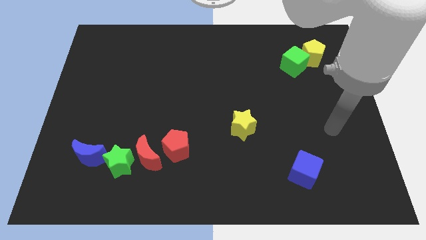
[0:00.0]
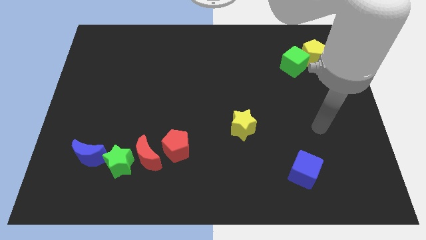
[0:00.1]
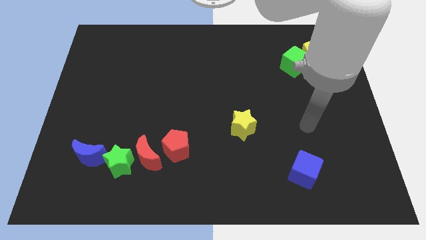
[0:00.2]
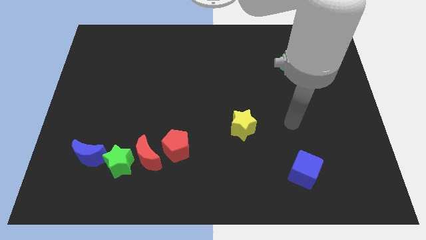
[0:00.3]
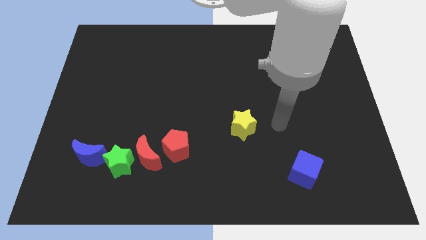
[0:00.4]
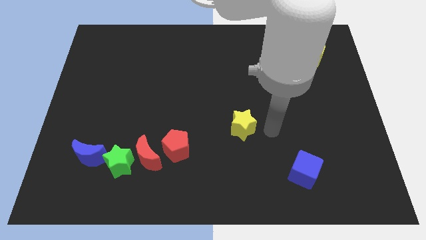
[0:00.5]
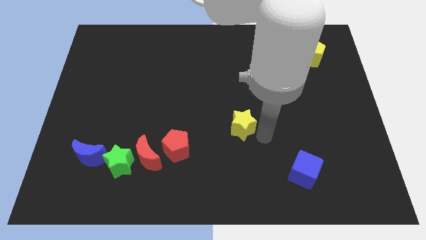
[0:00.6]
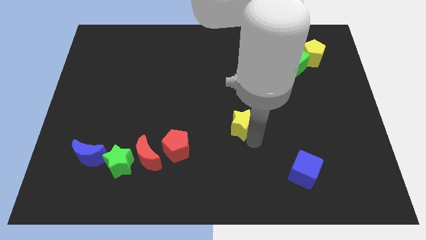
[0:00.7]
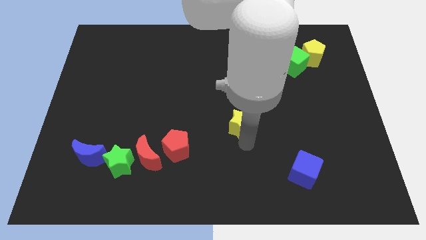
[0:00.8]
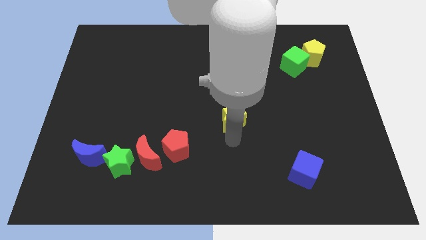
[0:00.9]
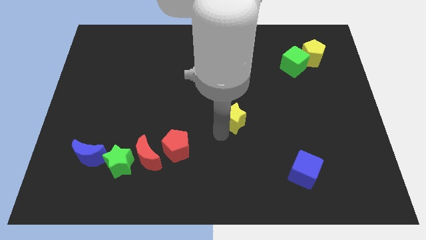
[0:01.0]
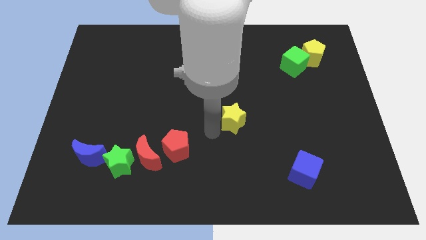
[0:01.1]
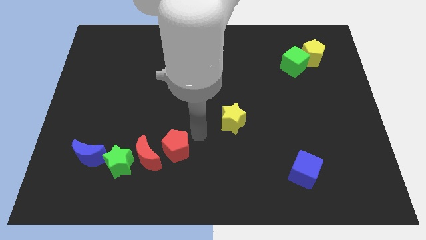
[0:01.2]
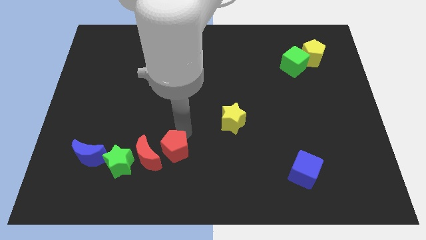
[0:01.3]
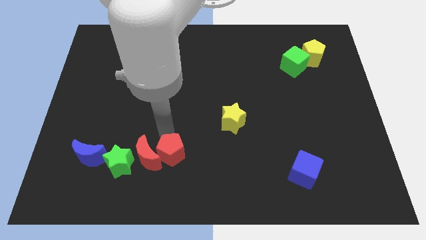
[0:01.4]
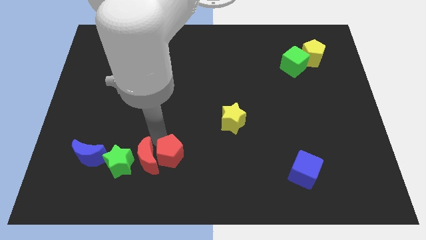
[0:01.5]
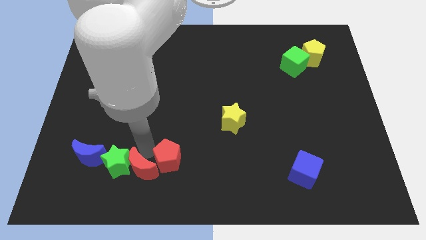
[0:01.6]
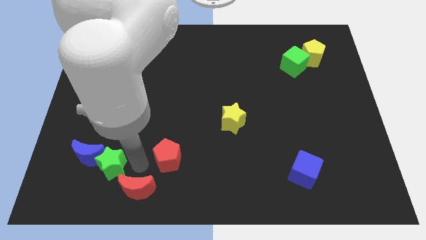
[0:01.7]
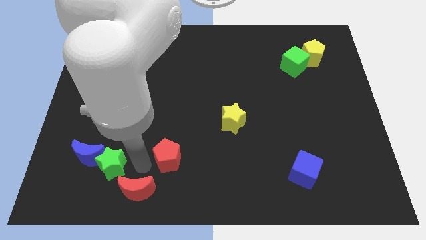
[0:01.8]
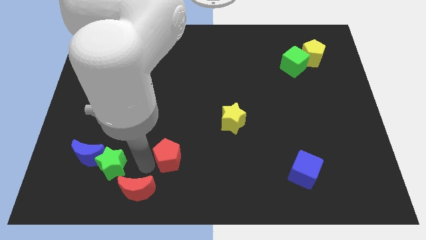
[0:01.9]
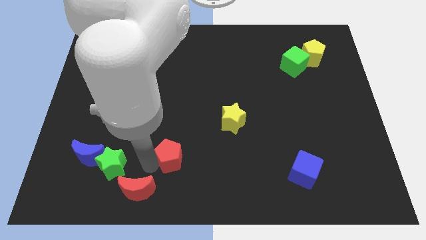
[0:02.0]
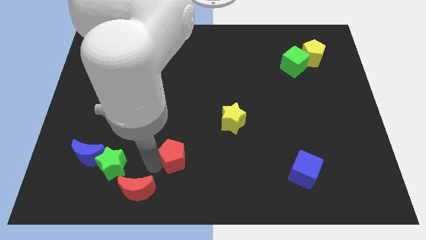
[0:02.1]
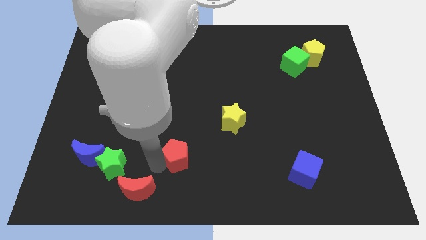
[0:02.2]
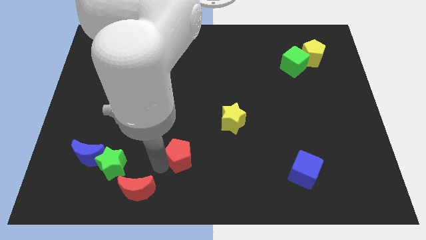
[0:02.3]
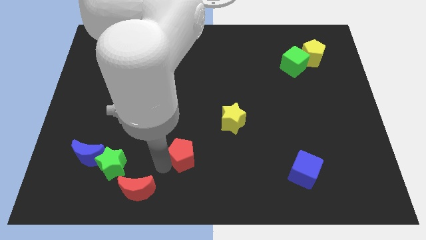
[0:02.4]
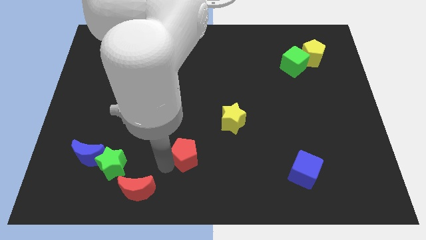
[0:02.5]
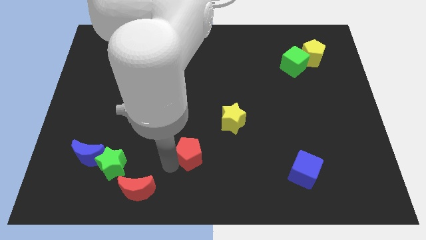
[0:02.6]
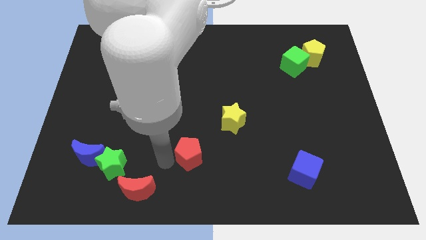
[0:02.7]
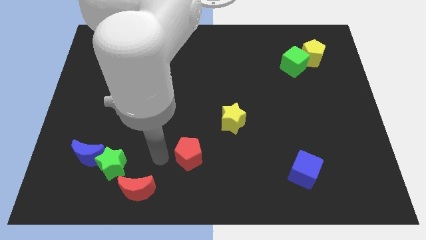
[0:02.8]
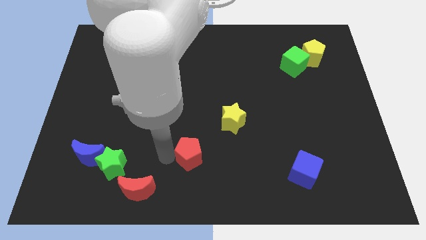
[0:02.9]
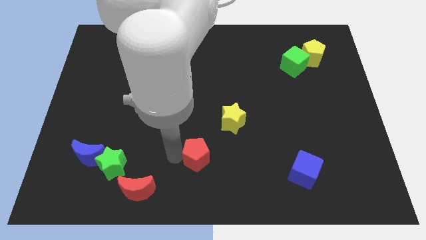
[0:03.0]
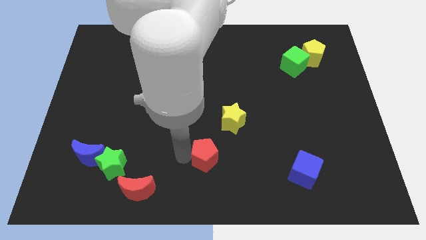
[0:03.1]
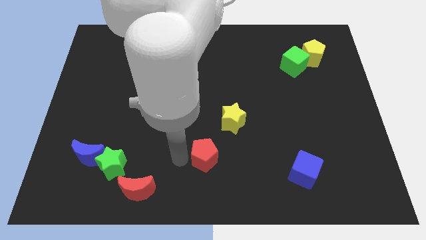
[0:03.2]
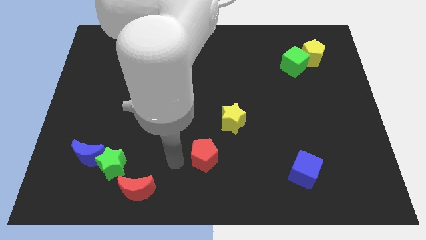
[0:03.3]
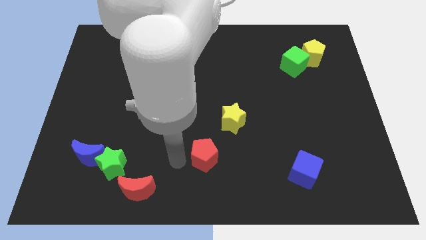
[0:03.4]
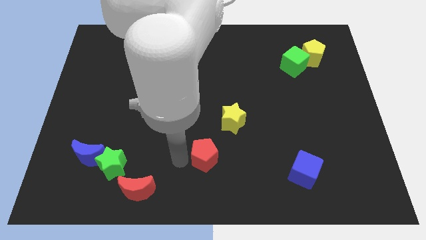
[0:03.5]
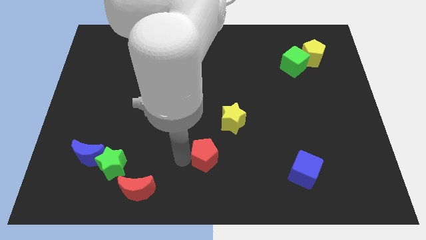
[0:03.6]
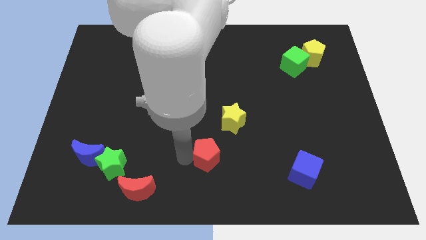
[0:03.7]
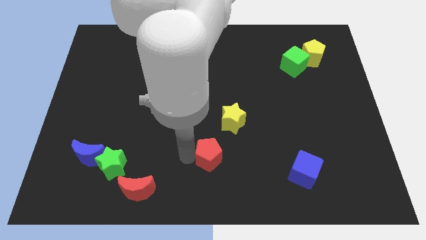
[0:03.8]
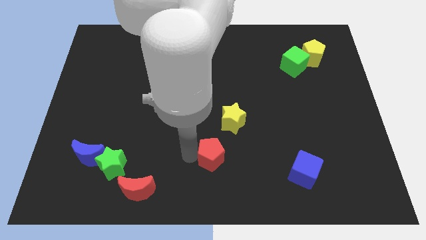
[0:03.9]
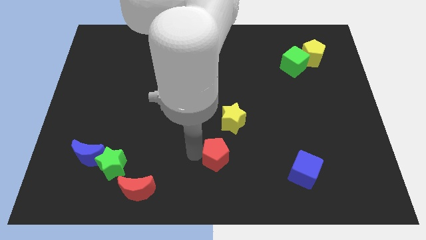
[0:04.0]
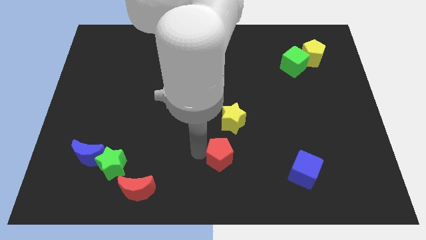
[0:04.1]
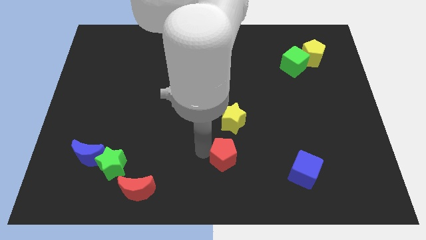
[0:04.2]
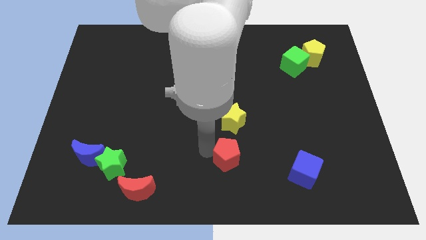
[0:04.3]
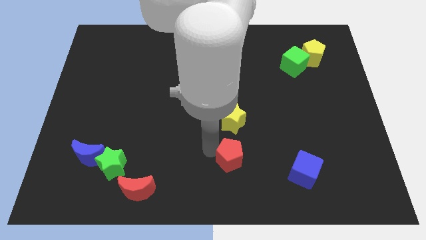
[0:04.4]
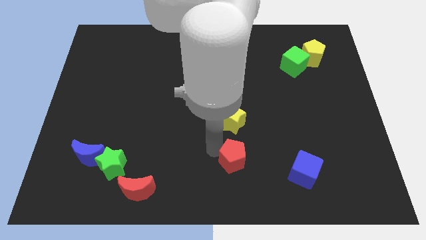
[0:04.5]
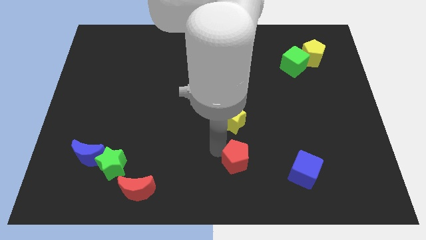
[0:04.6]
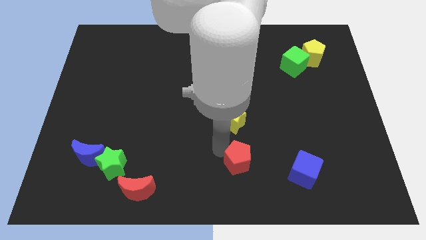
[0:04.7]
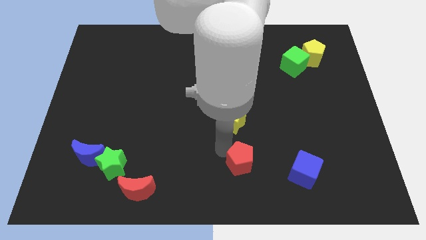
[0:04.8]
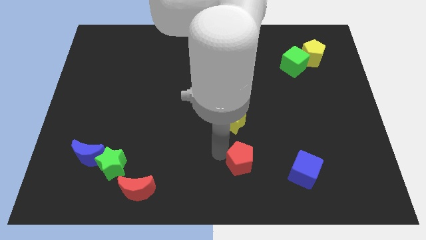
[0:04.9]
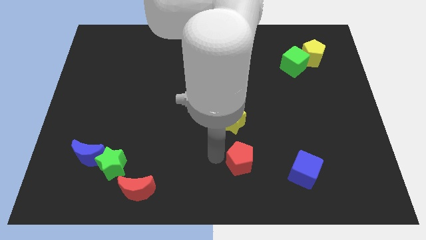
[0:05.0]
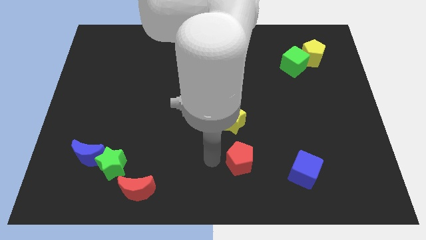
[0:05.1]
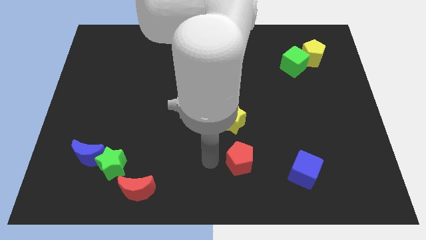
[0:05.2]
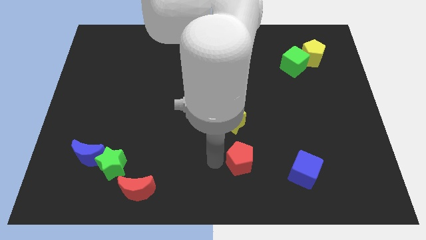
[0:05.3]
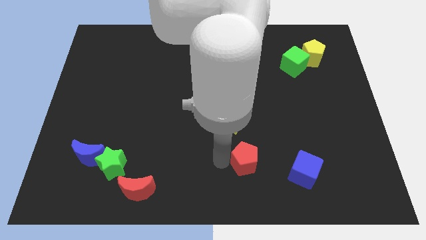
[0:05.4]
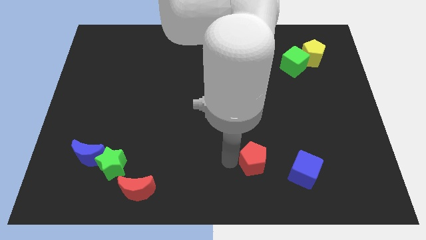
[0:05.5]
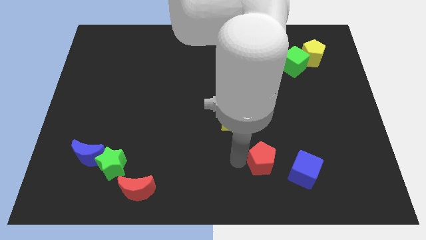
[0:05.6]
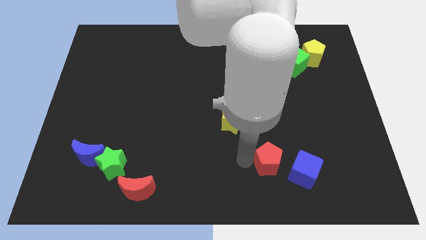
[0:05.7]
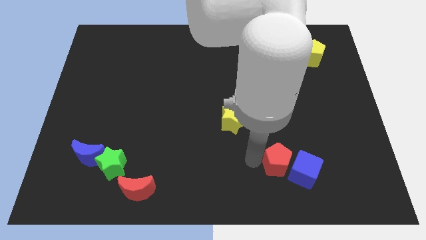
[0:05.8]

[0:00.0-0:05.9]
push the red pentagon close to the blue cube
